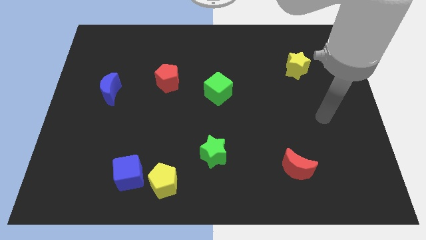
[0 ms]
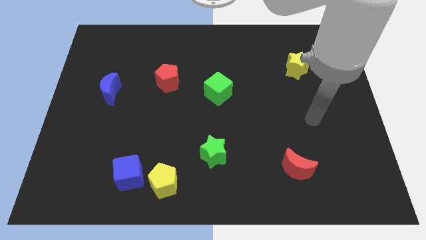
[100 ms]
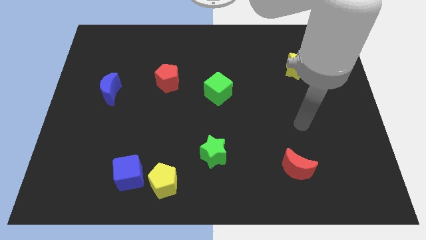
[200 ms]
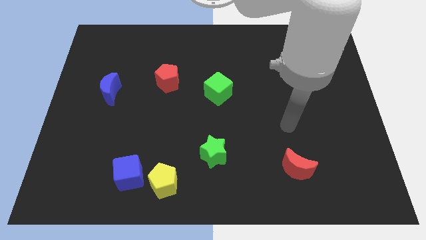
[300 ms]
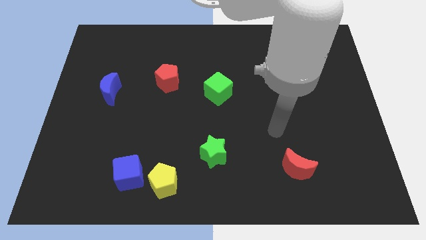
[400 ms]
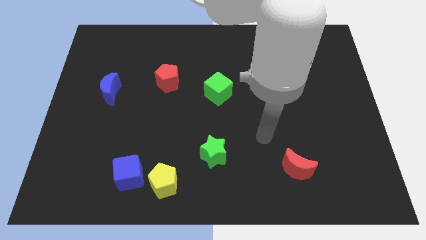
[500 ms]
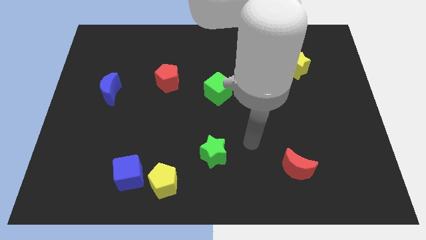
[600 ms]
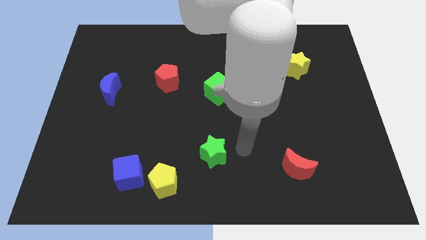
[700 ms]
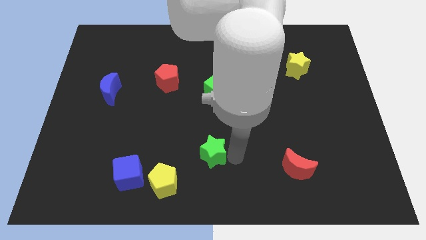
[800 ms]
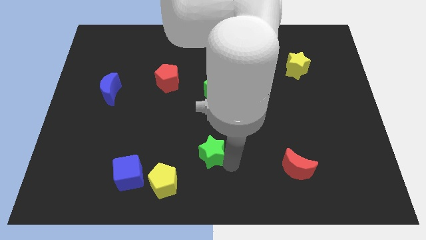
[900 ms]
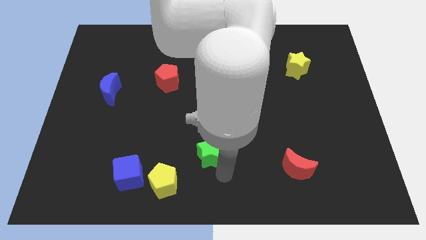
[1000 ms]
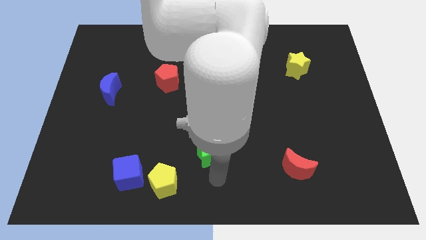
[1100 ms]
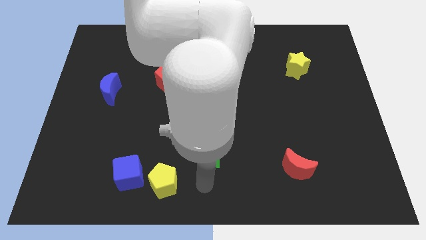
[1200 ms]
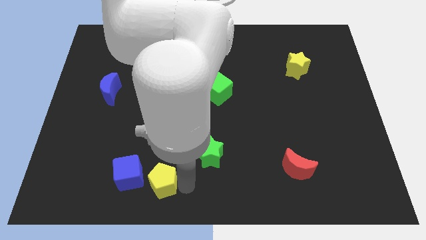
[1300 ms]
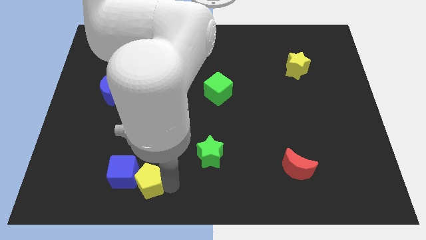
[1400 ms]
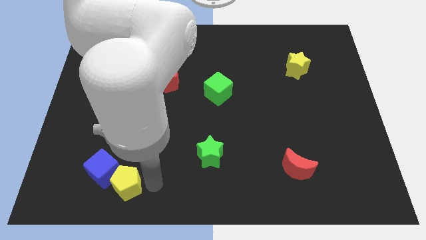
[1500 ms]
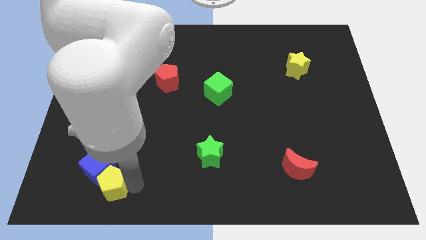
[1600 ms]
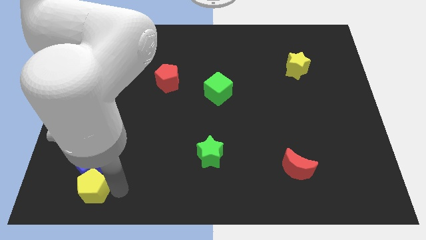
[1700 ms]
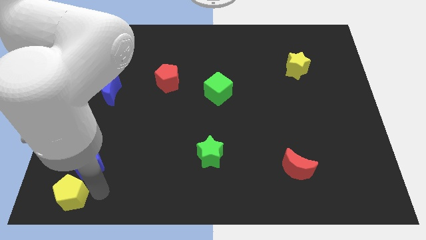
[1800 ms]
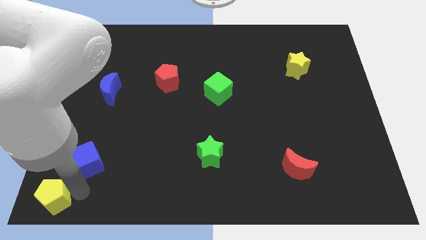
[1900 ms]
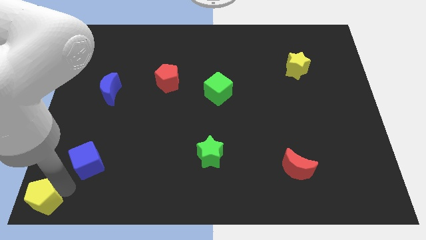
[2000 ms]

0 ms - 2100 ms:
separate the blue cube from the yellow pentagon

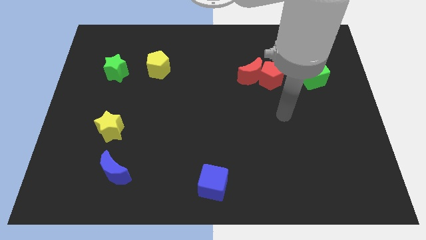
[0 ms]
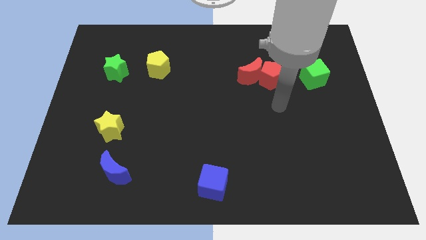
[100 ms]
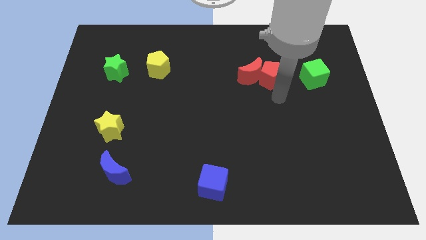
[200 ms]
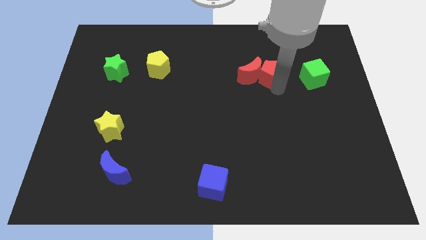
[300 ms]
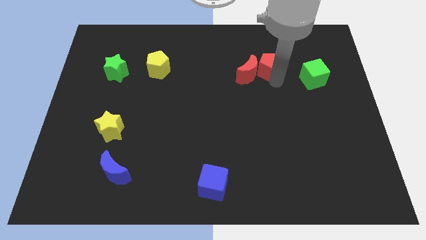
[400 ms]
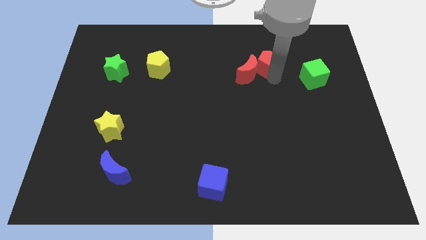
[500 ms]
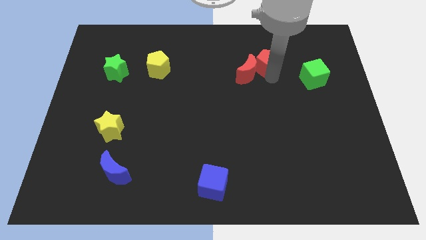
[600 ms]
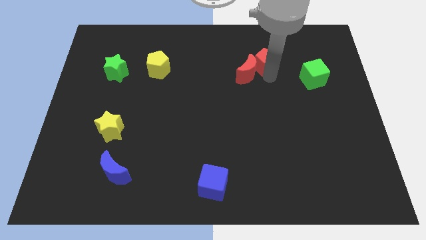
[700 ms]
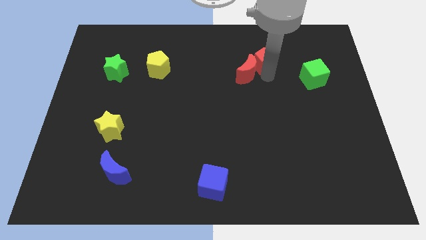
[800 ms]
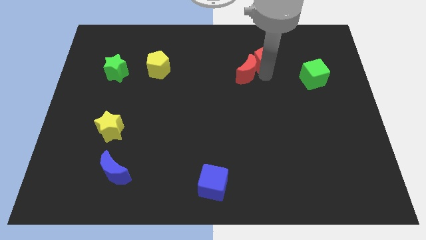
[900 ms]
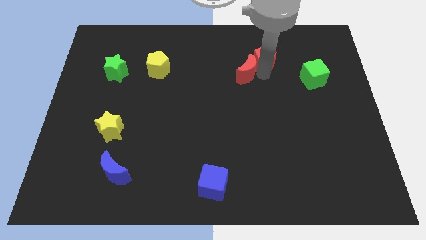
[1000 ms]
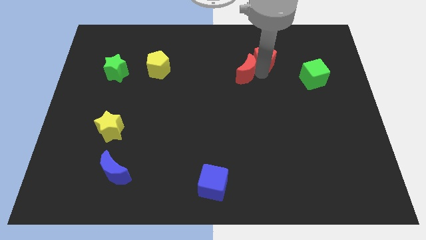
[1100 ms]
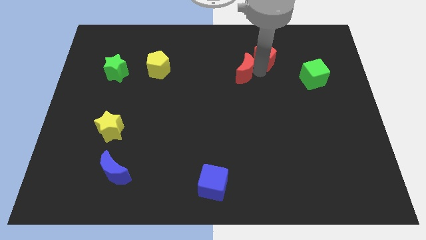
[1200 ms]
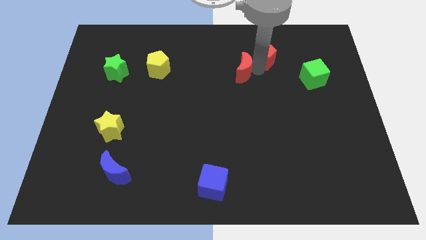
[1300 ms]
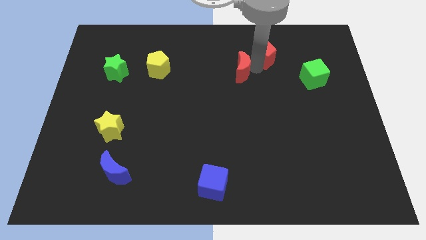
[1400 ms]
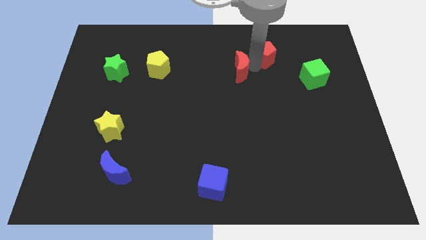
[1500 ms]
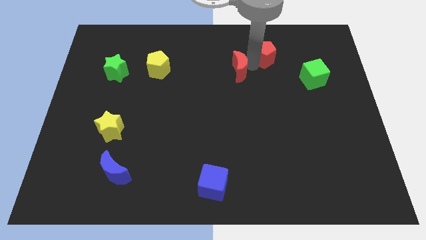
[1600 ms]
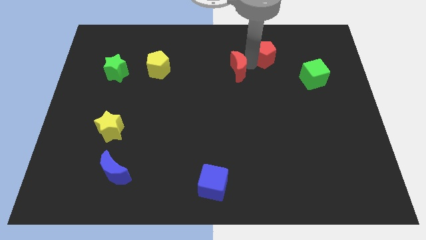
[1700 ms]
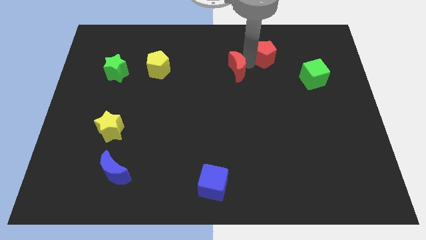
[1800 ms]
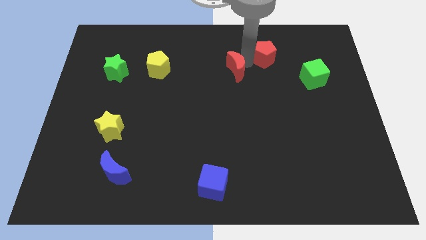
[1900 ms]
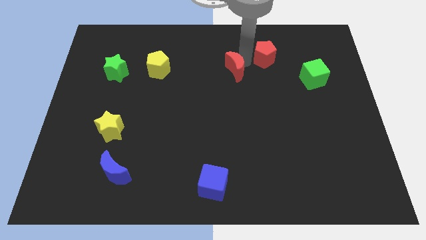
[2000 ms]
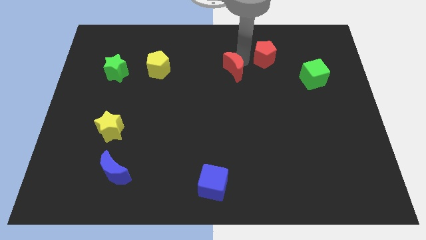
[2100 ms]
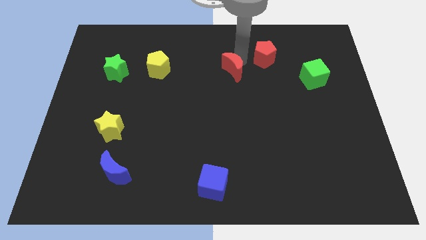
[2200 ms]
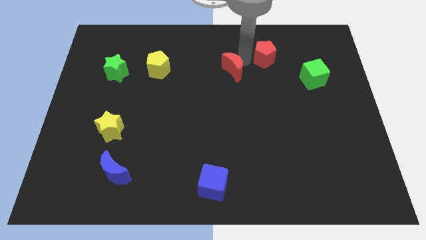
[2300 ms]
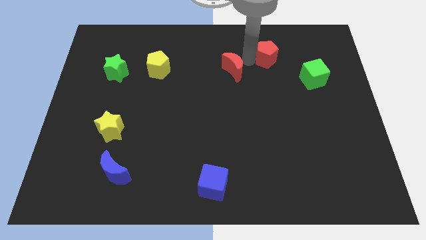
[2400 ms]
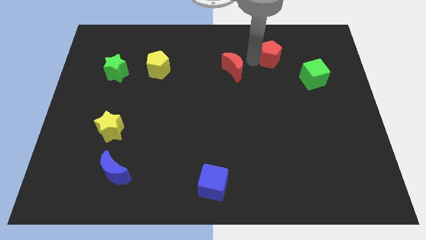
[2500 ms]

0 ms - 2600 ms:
pull the red moon apart from the red pentagon

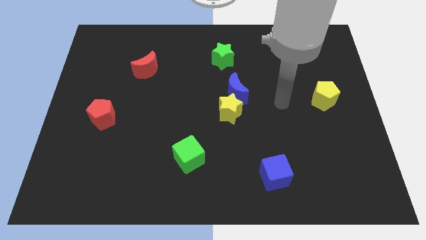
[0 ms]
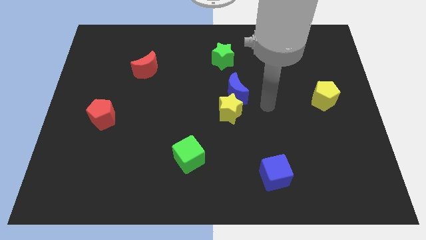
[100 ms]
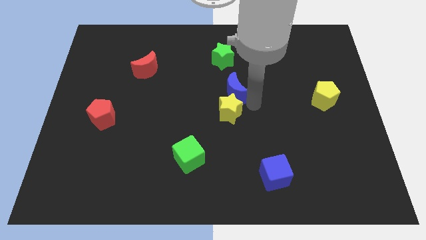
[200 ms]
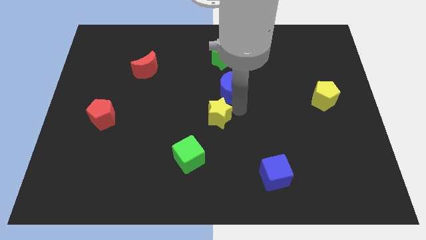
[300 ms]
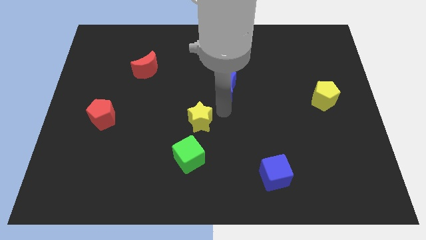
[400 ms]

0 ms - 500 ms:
pull the blue moon apart from the yellow star

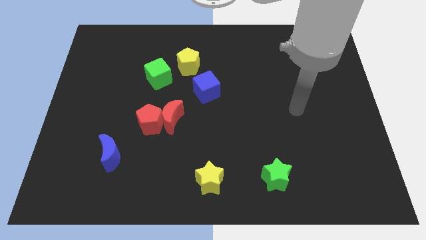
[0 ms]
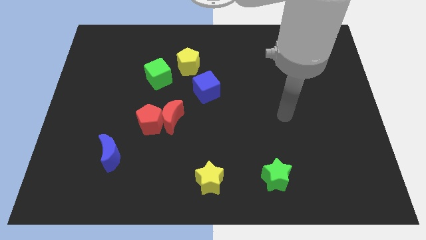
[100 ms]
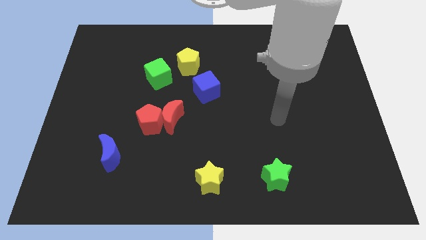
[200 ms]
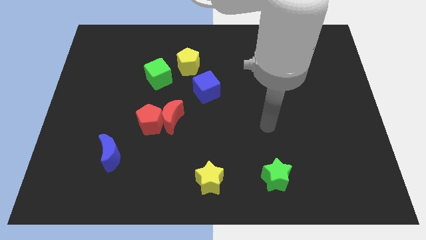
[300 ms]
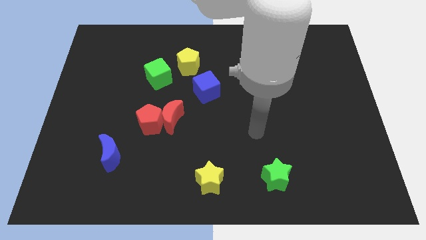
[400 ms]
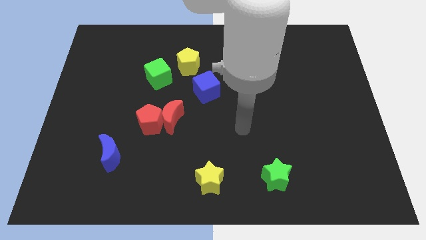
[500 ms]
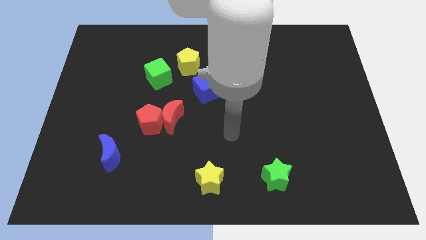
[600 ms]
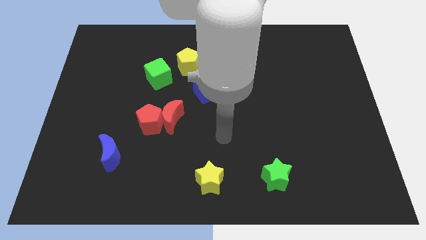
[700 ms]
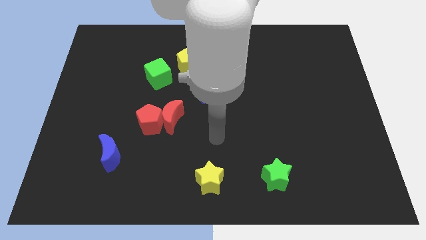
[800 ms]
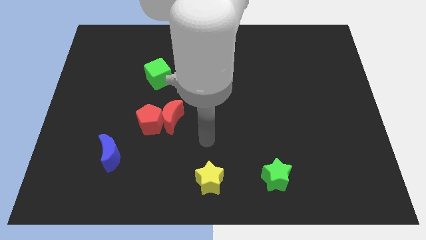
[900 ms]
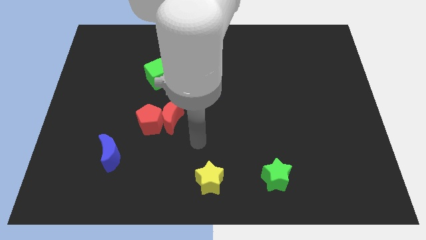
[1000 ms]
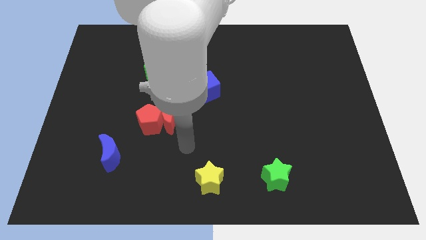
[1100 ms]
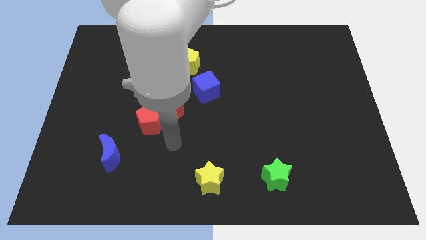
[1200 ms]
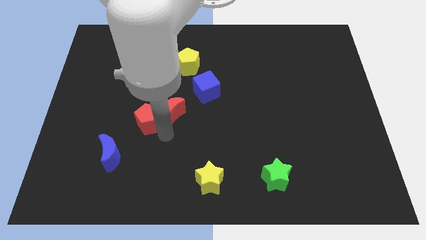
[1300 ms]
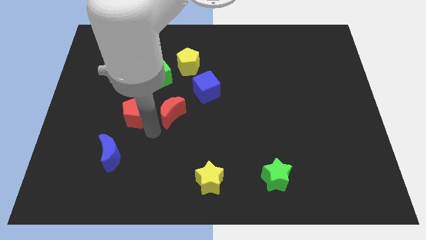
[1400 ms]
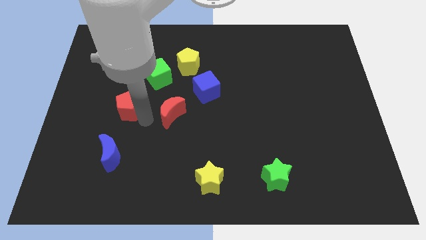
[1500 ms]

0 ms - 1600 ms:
move the red moon away from the red pentagon

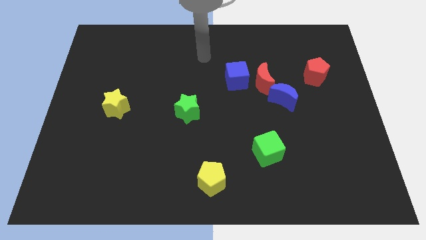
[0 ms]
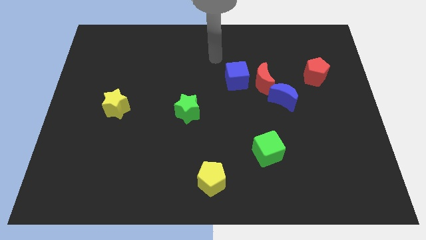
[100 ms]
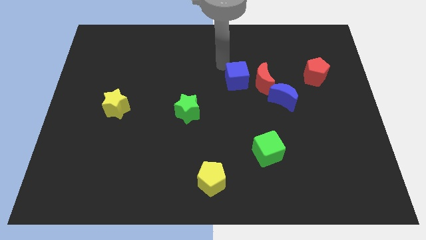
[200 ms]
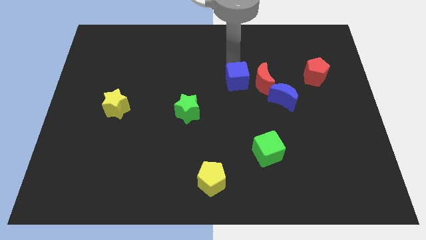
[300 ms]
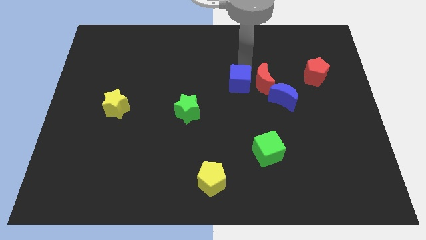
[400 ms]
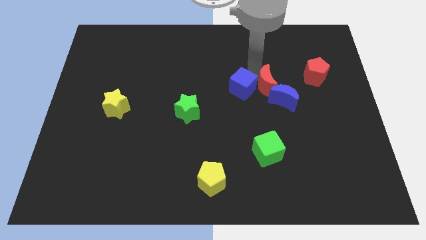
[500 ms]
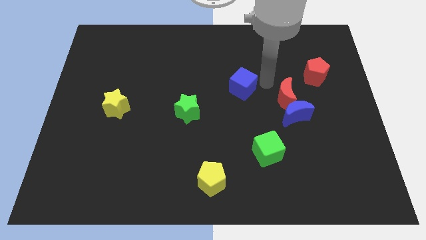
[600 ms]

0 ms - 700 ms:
separate the blue cube from the red moon

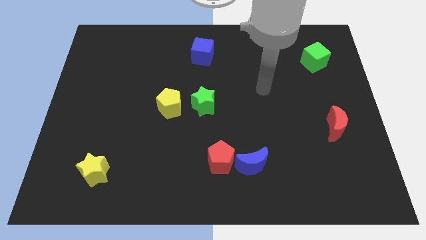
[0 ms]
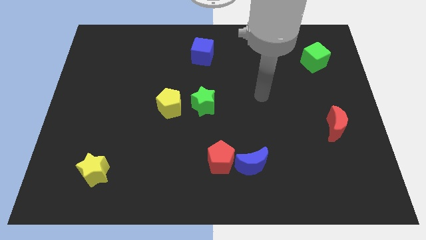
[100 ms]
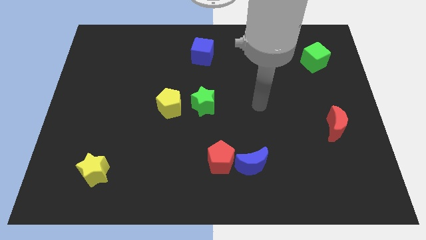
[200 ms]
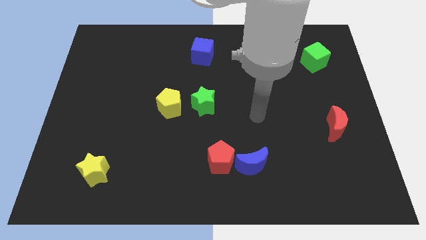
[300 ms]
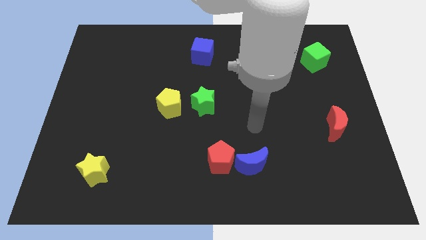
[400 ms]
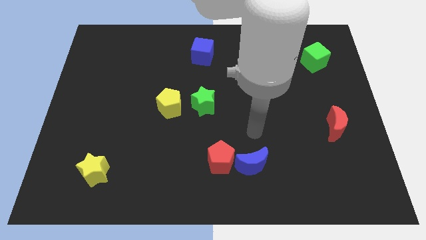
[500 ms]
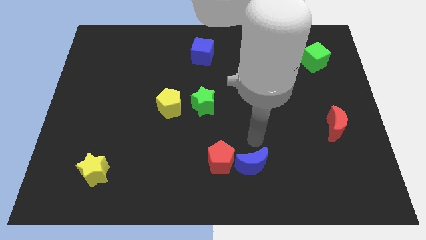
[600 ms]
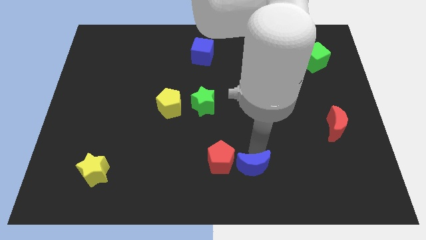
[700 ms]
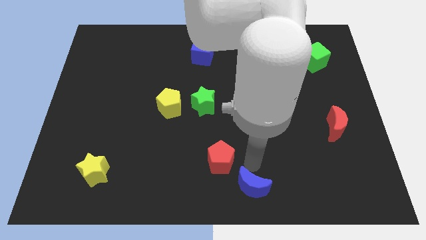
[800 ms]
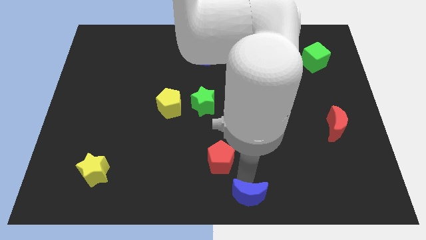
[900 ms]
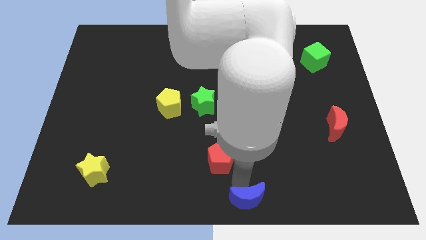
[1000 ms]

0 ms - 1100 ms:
separate the red pentagon from the blue moon

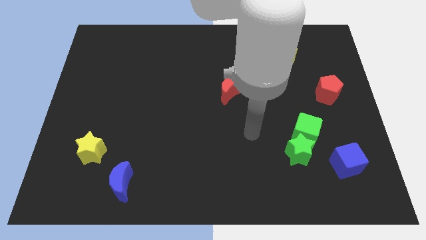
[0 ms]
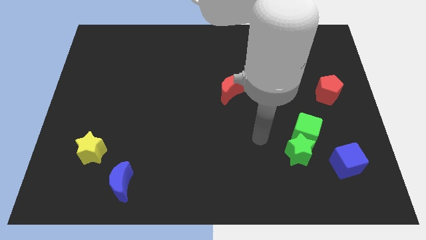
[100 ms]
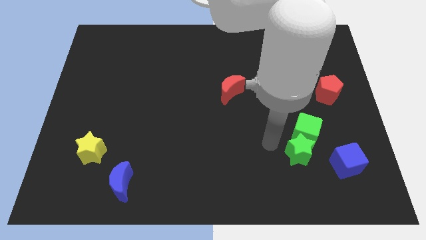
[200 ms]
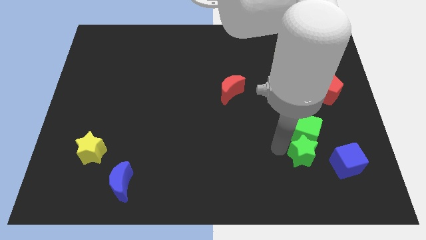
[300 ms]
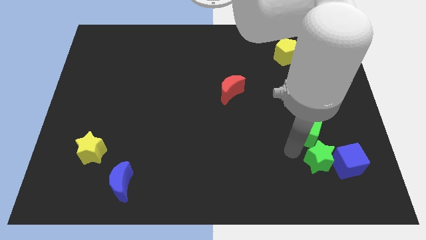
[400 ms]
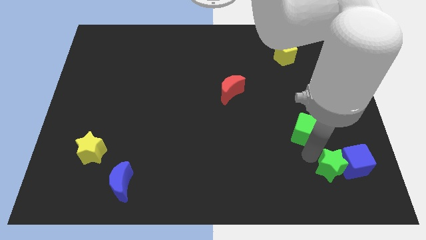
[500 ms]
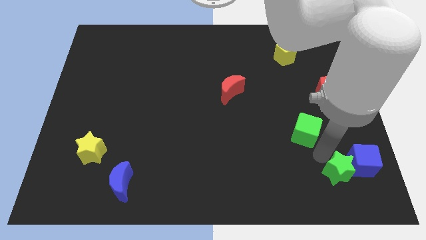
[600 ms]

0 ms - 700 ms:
separate the green cube from the green star
